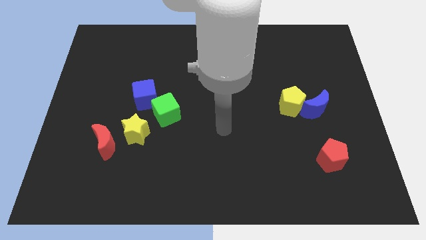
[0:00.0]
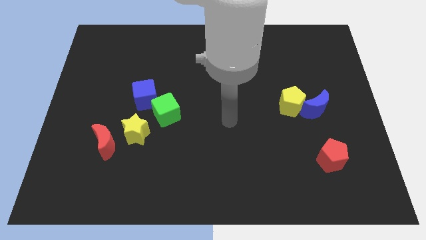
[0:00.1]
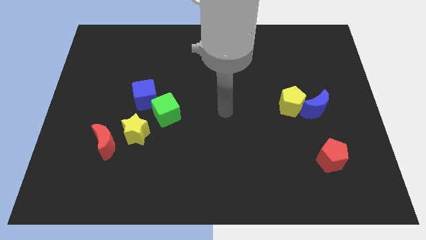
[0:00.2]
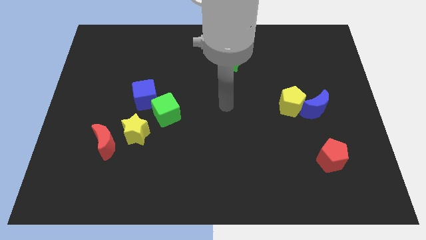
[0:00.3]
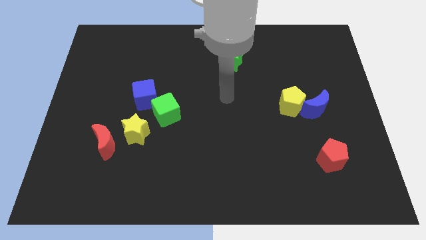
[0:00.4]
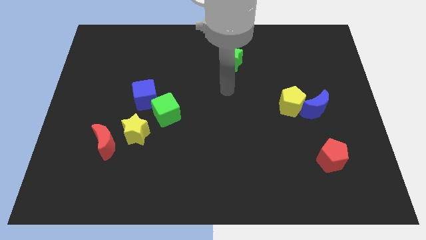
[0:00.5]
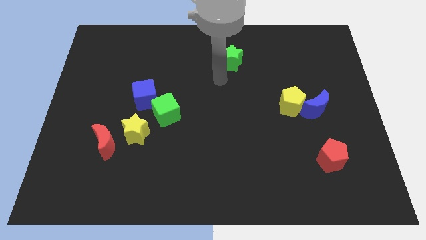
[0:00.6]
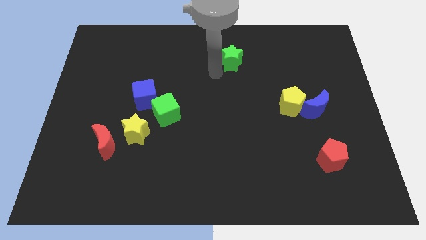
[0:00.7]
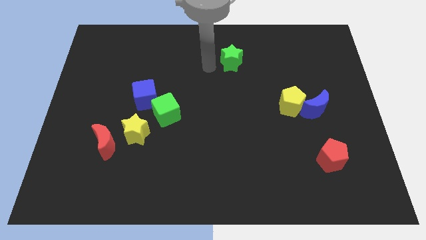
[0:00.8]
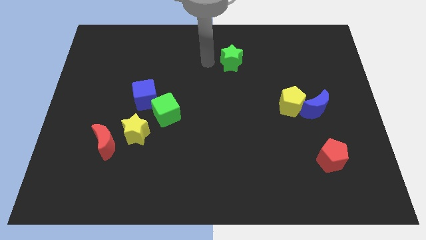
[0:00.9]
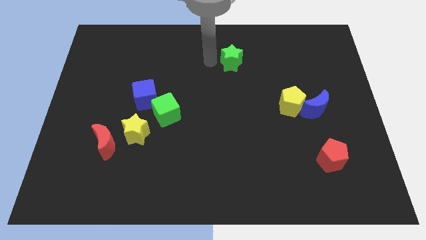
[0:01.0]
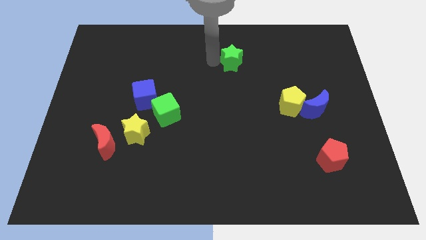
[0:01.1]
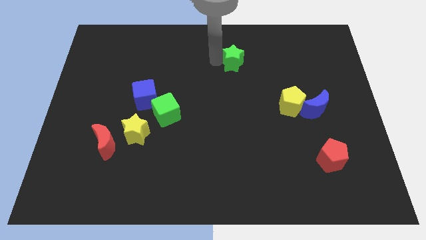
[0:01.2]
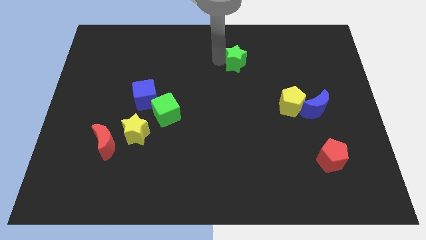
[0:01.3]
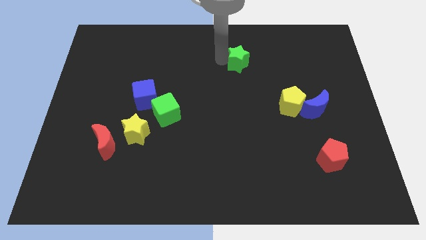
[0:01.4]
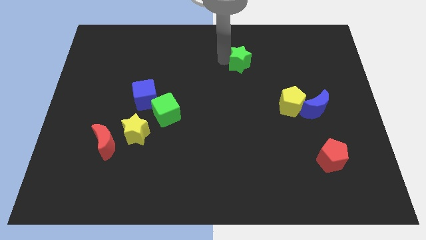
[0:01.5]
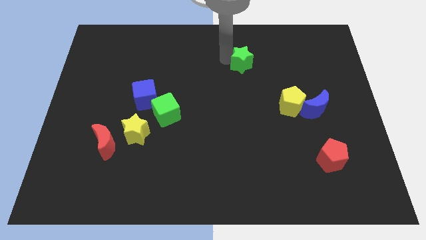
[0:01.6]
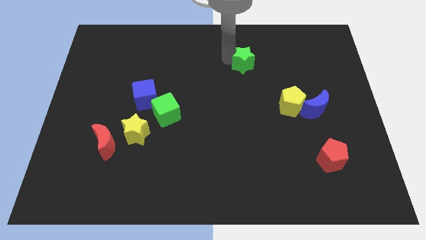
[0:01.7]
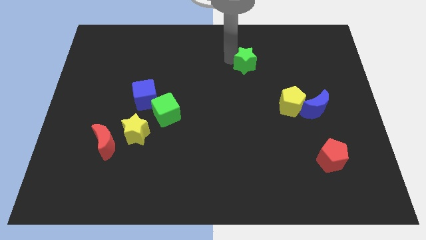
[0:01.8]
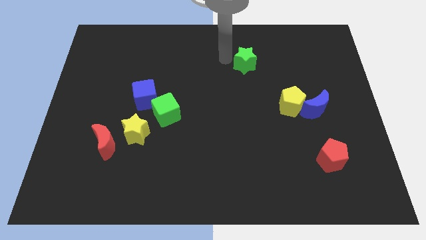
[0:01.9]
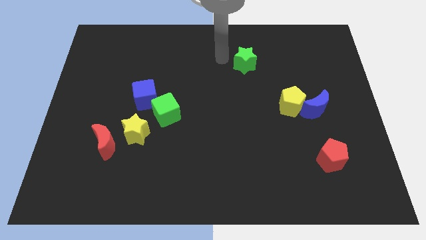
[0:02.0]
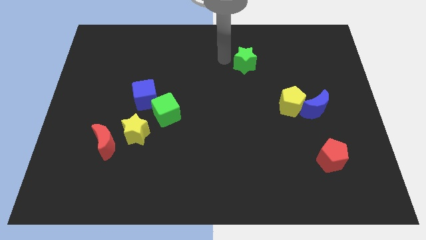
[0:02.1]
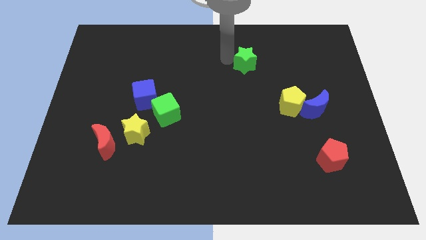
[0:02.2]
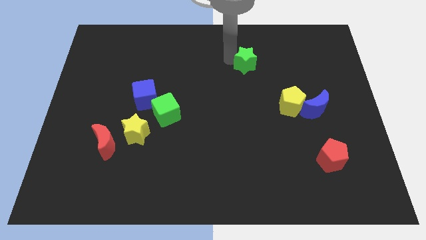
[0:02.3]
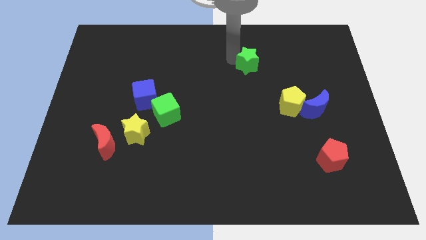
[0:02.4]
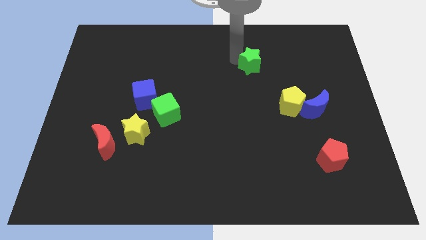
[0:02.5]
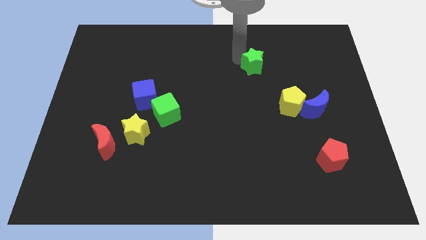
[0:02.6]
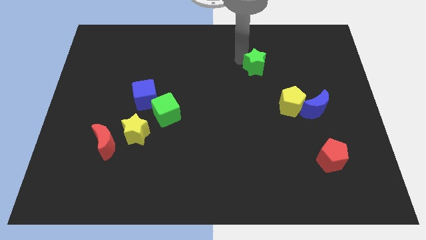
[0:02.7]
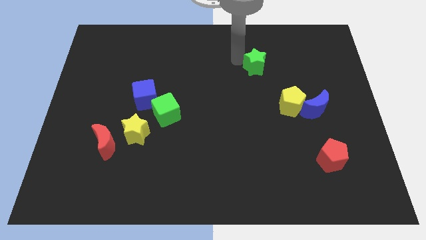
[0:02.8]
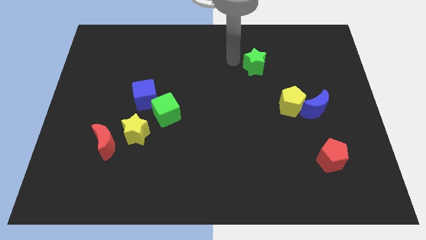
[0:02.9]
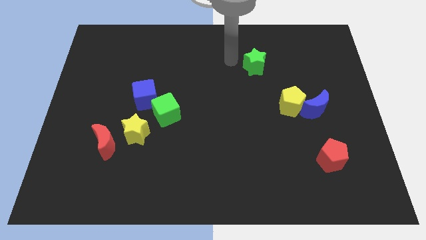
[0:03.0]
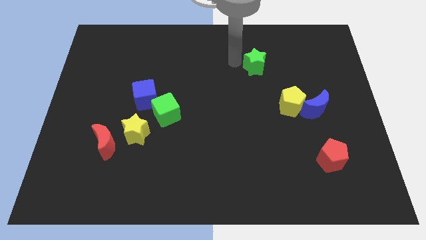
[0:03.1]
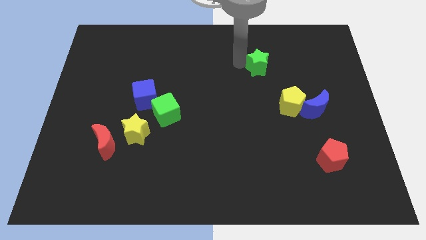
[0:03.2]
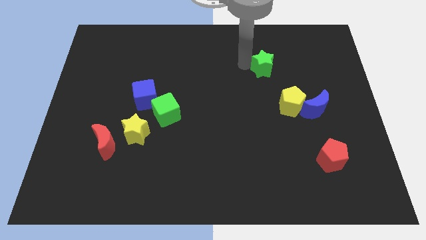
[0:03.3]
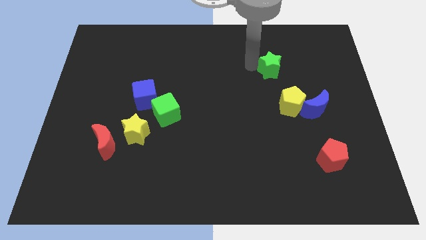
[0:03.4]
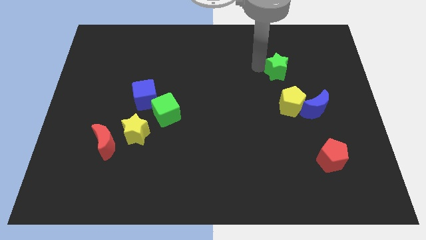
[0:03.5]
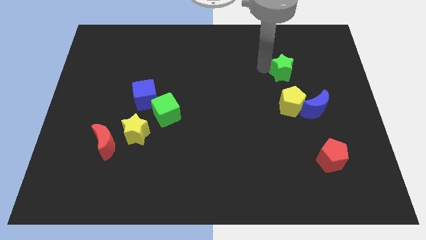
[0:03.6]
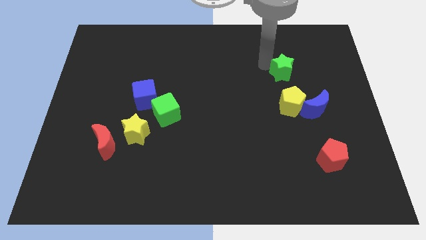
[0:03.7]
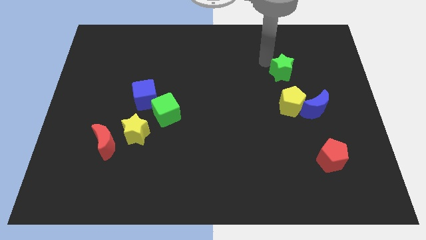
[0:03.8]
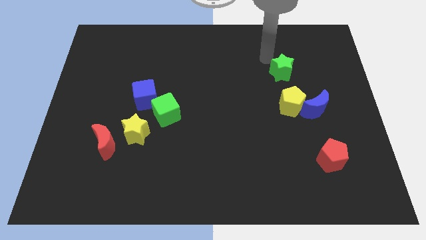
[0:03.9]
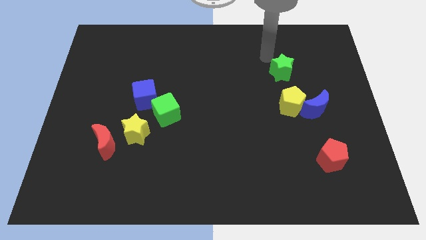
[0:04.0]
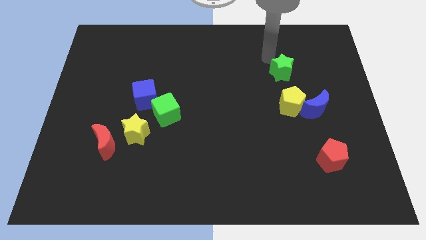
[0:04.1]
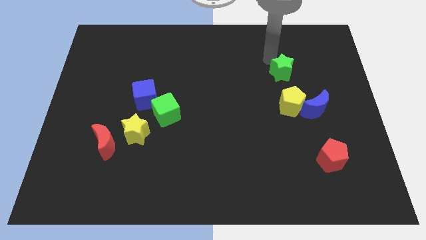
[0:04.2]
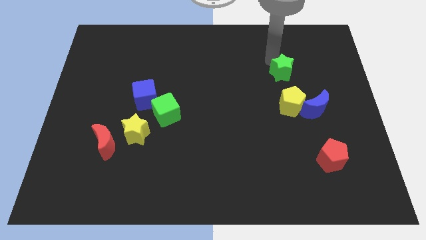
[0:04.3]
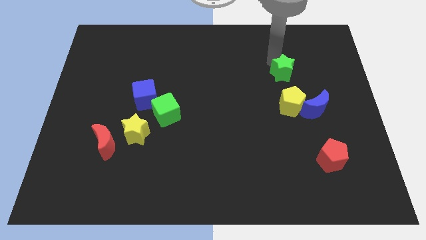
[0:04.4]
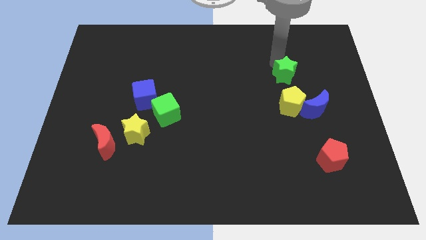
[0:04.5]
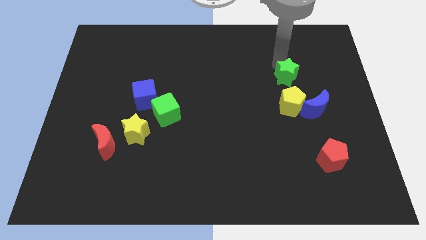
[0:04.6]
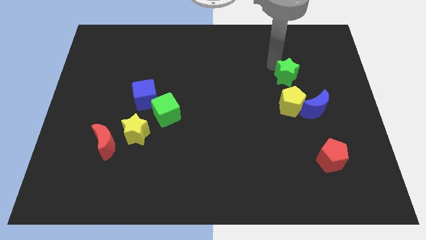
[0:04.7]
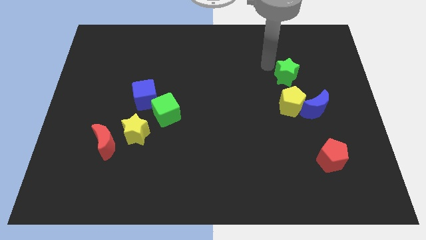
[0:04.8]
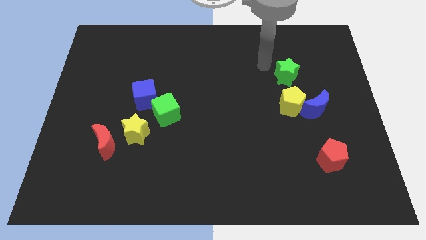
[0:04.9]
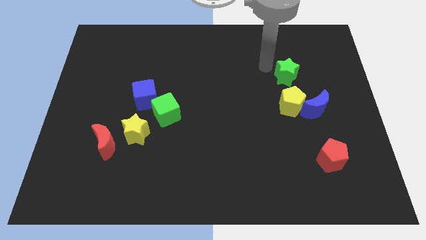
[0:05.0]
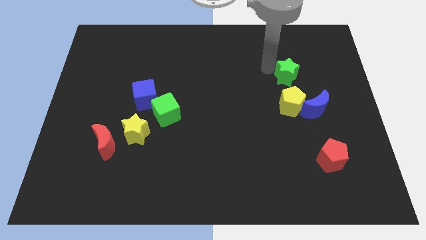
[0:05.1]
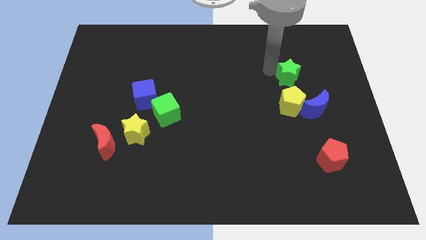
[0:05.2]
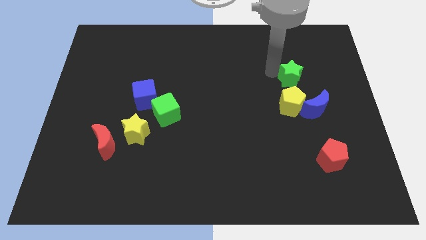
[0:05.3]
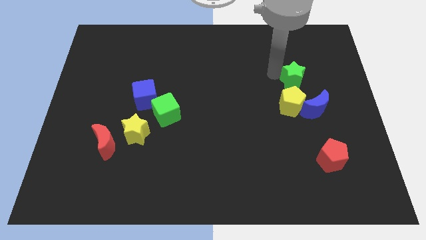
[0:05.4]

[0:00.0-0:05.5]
put the green star to the top right of the yellow pentagon

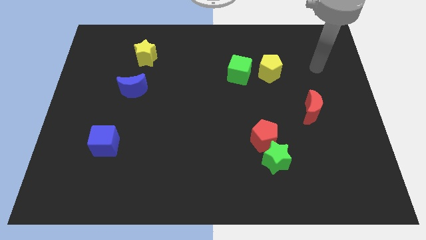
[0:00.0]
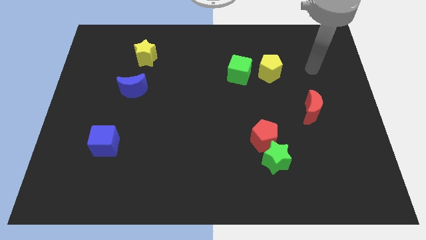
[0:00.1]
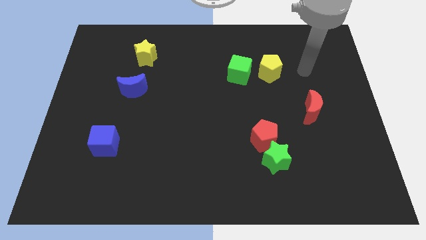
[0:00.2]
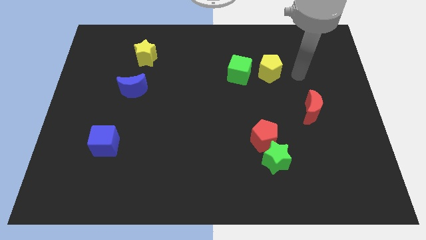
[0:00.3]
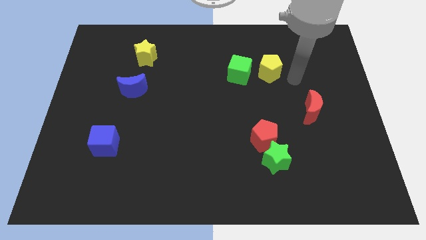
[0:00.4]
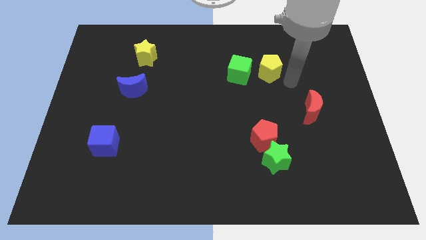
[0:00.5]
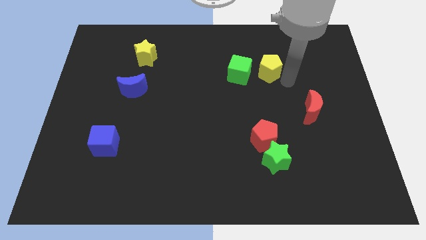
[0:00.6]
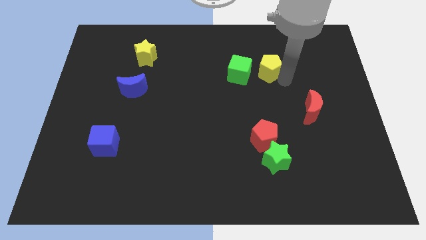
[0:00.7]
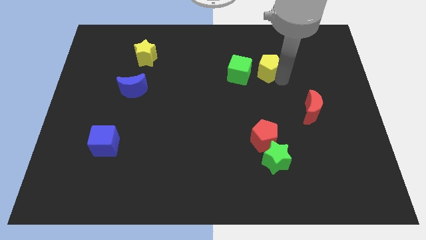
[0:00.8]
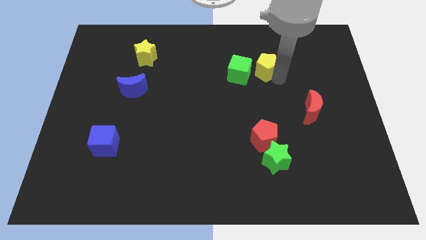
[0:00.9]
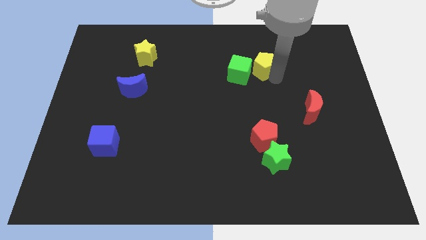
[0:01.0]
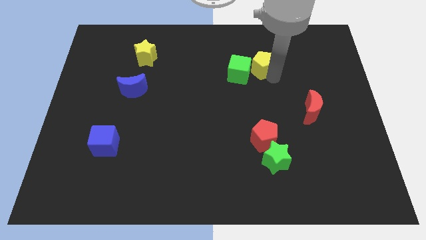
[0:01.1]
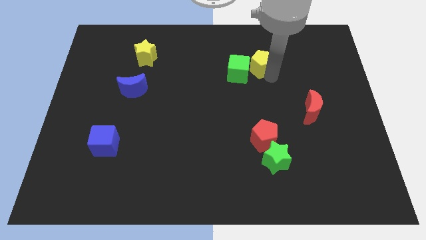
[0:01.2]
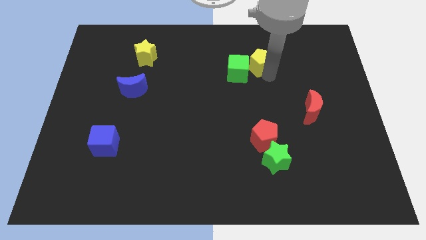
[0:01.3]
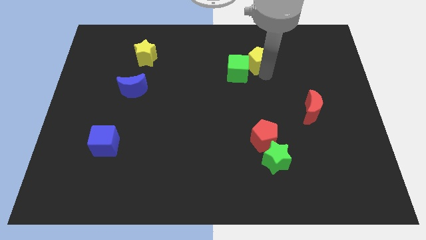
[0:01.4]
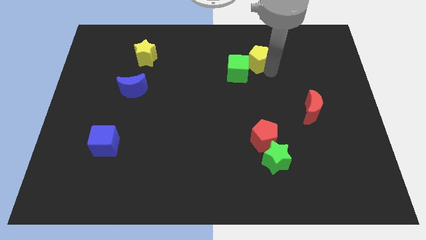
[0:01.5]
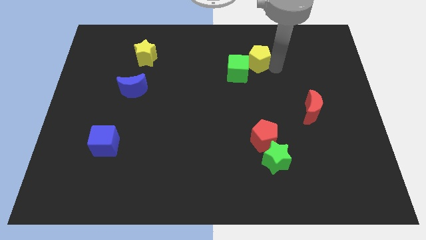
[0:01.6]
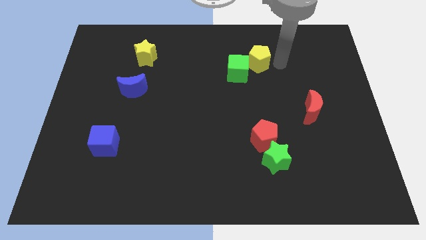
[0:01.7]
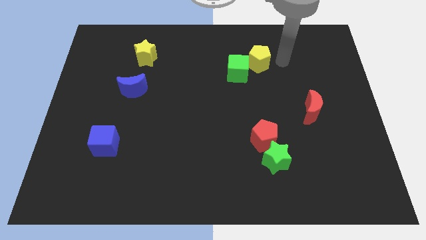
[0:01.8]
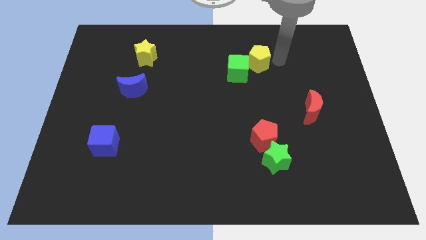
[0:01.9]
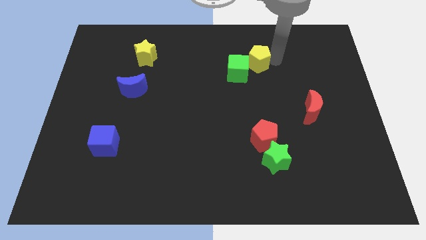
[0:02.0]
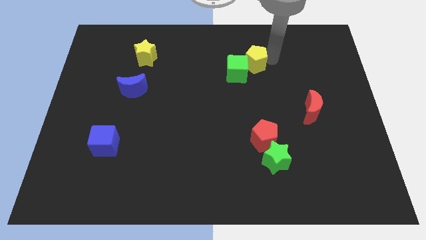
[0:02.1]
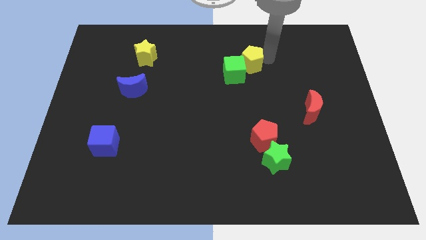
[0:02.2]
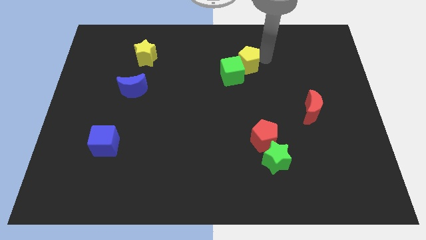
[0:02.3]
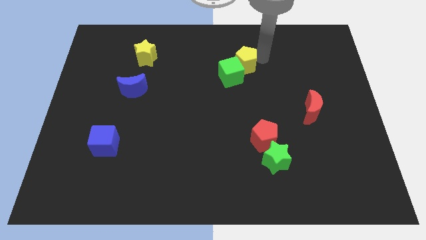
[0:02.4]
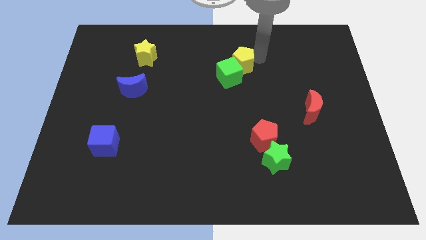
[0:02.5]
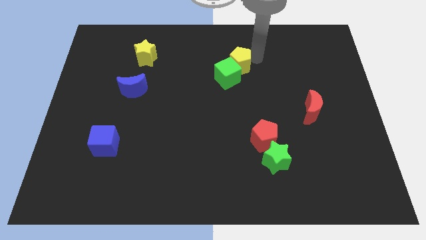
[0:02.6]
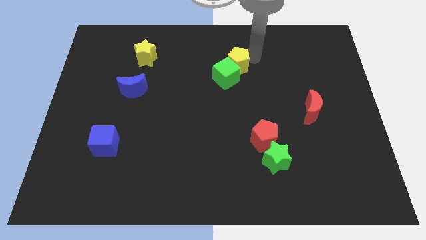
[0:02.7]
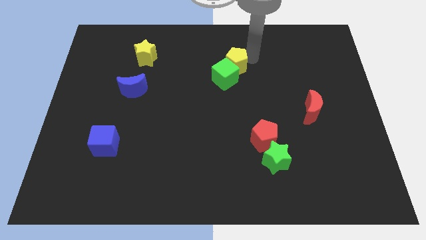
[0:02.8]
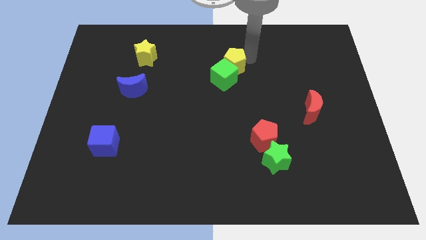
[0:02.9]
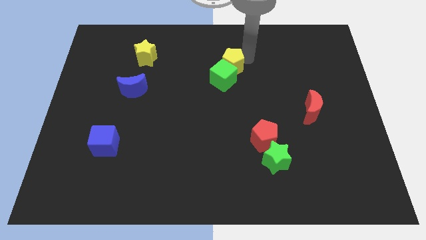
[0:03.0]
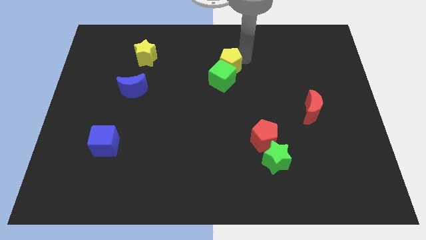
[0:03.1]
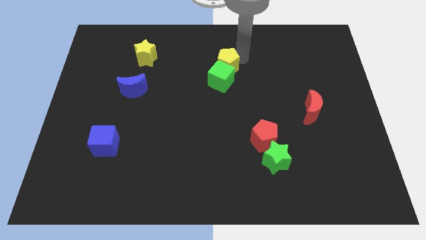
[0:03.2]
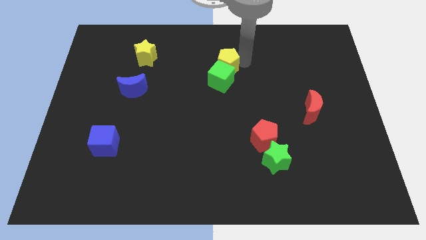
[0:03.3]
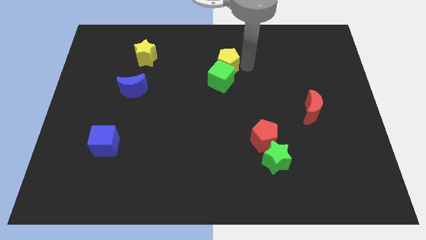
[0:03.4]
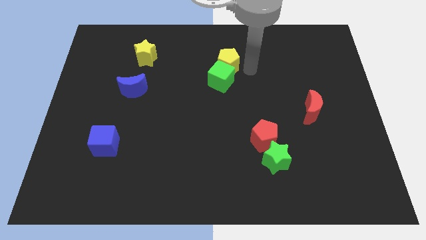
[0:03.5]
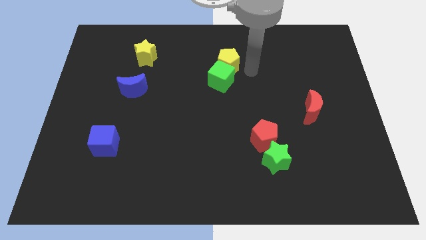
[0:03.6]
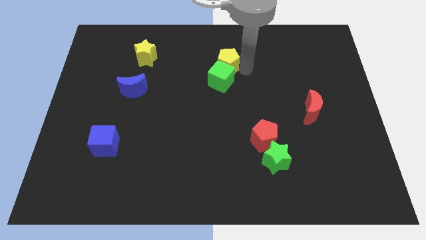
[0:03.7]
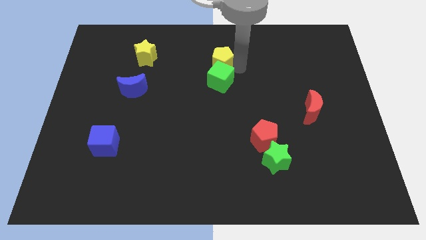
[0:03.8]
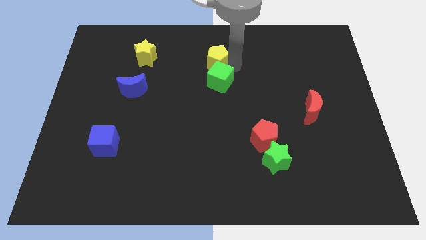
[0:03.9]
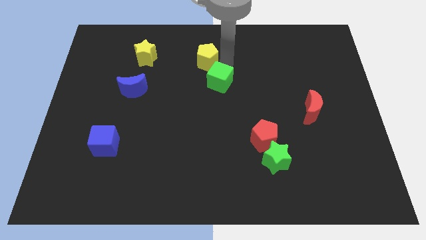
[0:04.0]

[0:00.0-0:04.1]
put the yellow pentagon to the right side of the yellow star
